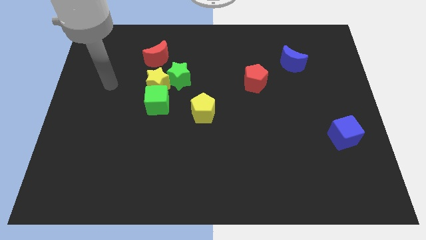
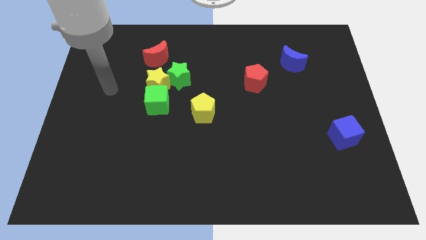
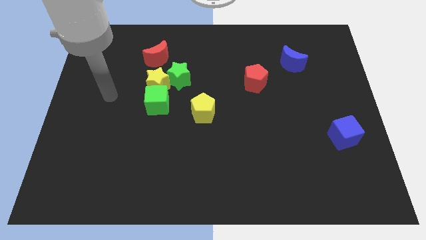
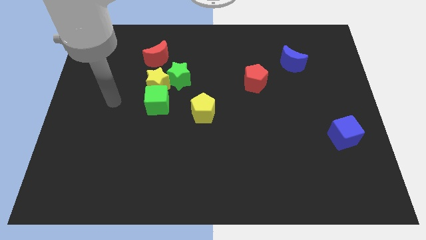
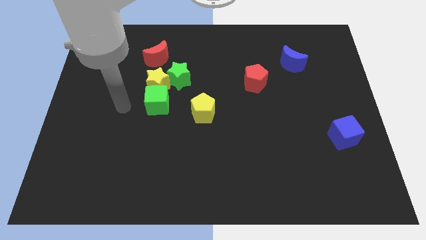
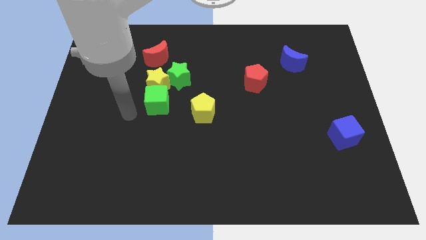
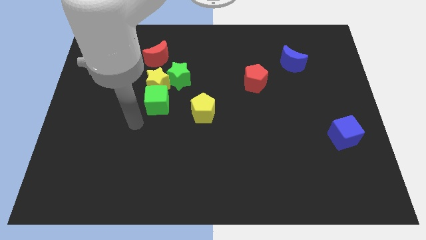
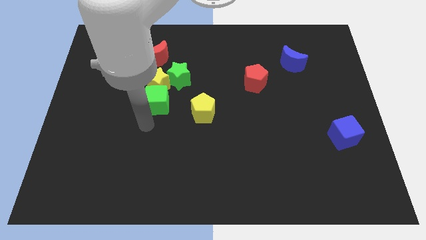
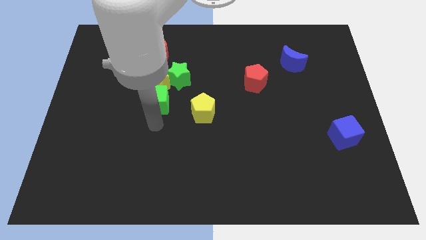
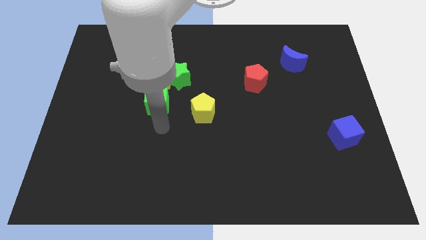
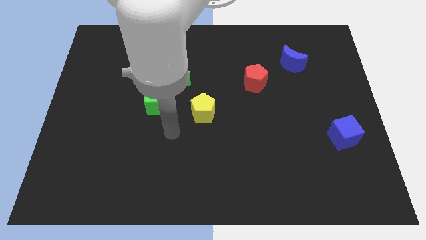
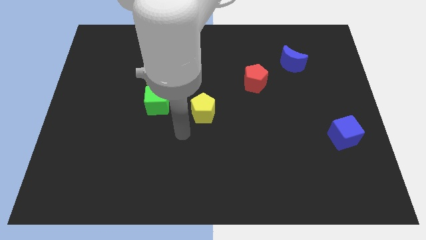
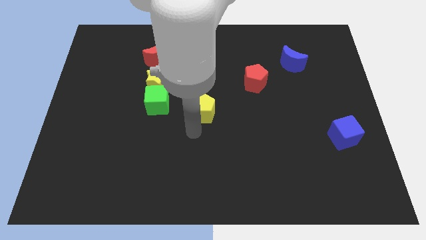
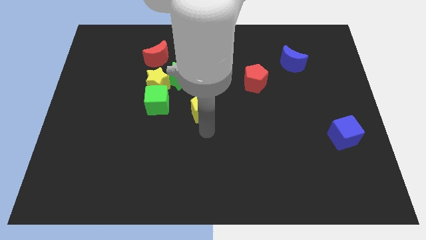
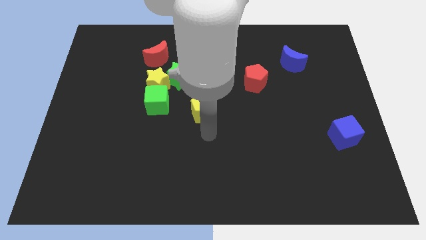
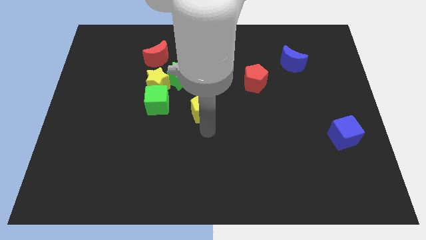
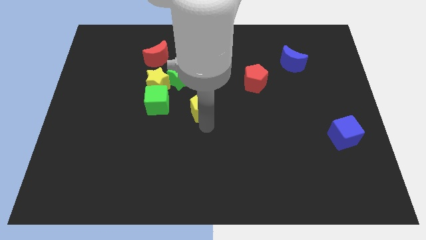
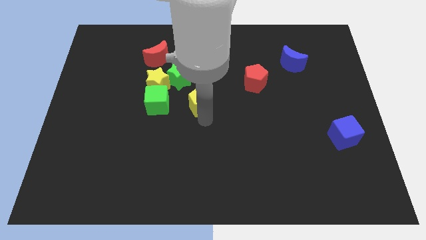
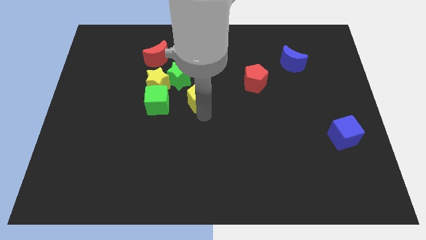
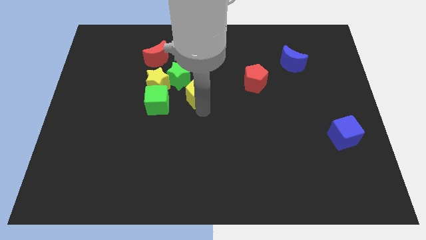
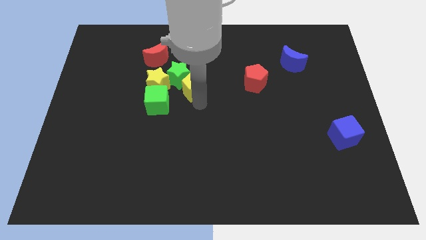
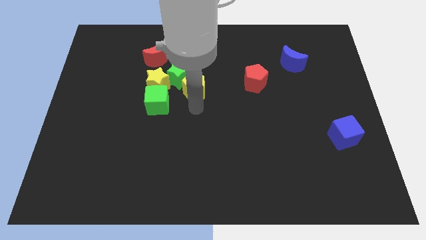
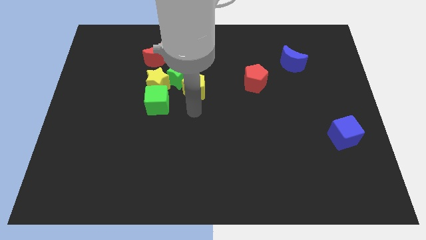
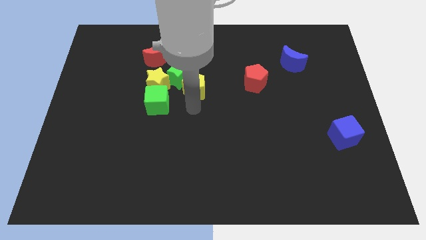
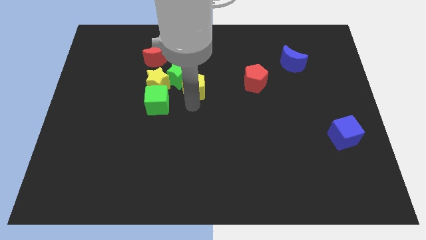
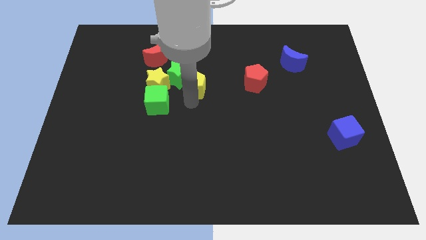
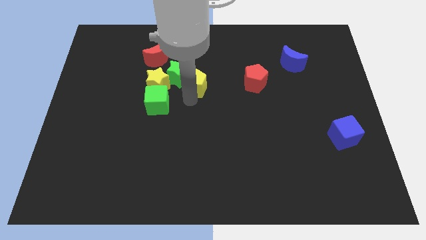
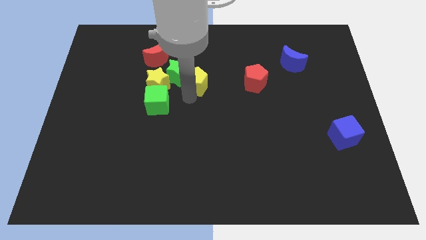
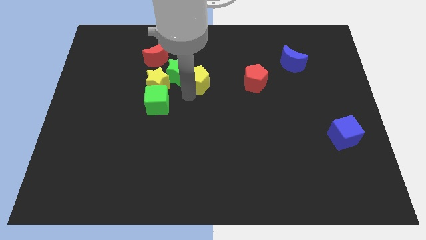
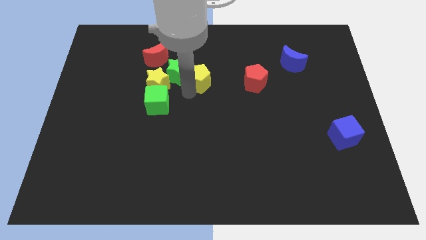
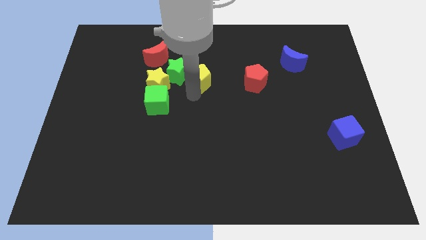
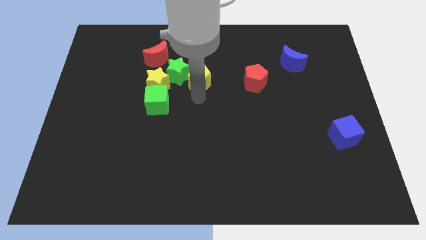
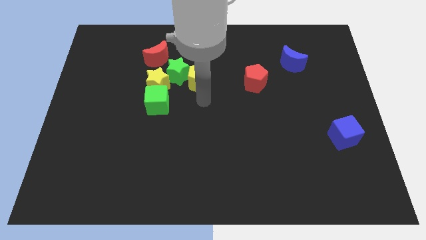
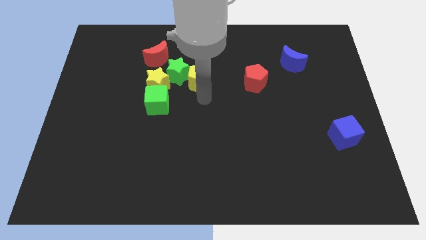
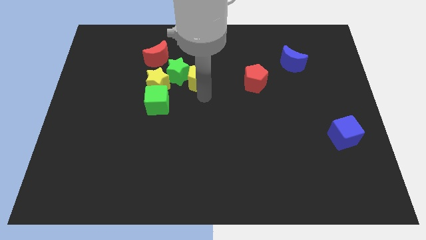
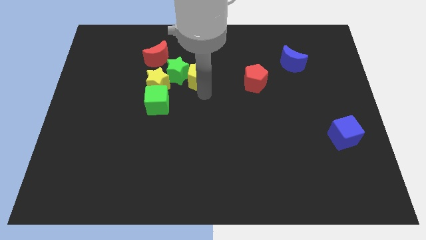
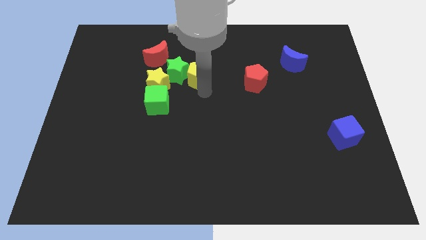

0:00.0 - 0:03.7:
slightly move the yellow pentagon diagonally up and to the left

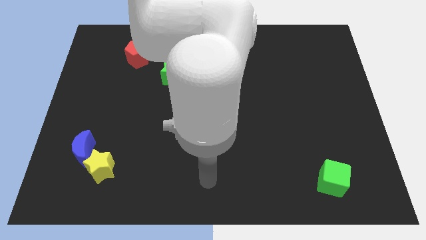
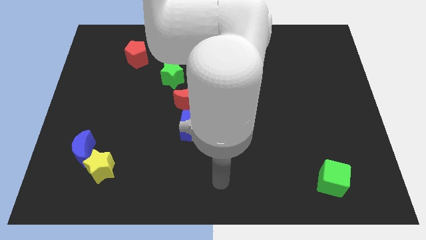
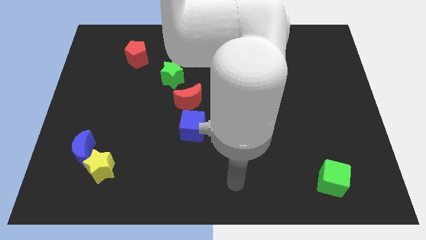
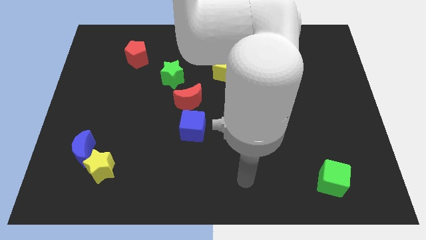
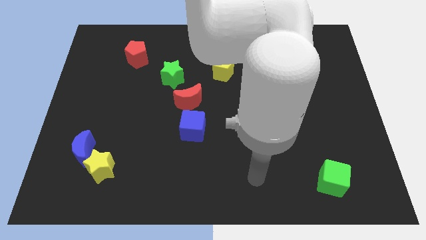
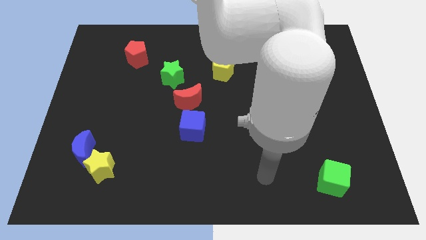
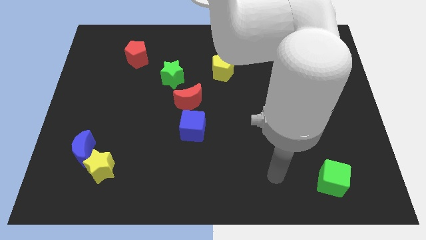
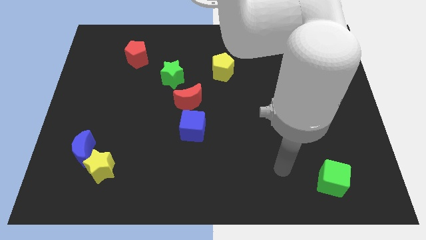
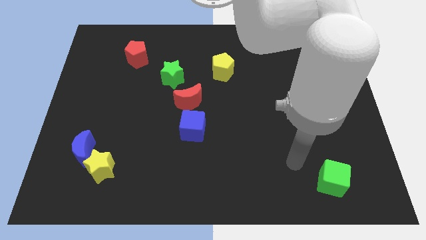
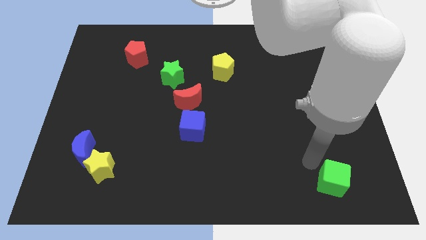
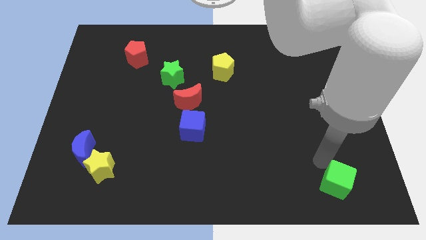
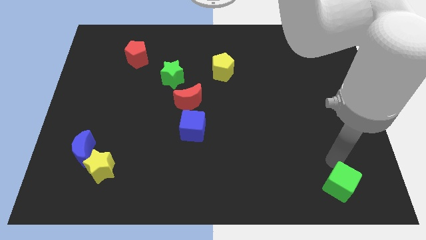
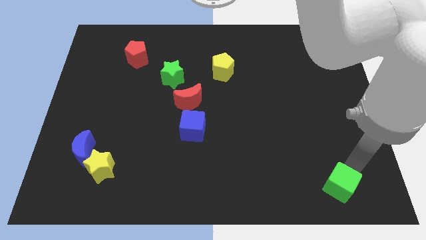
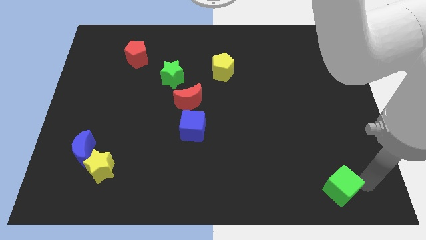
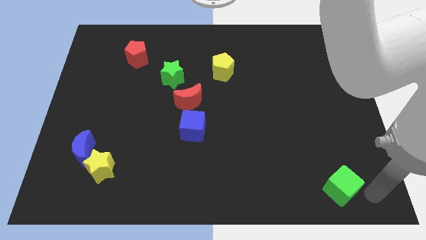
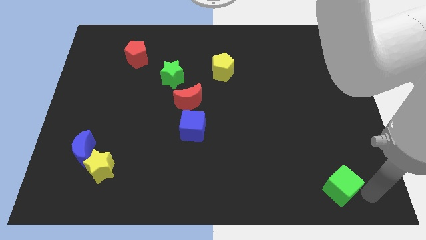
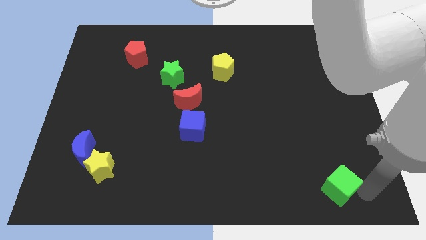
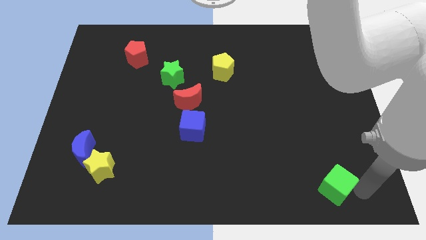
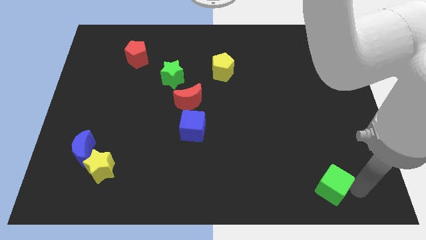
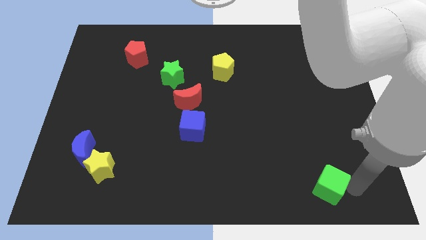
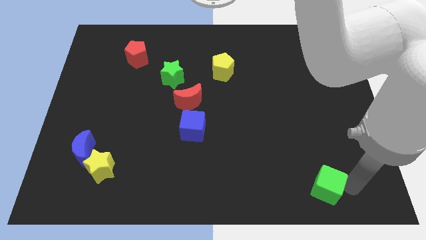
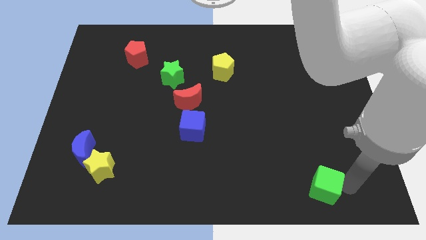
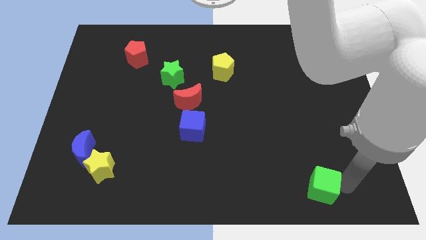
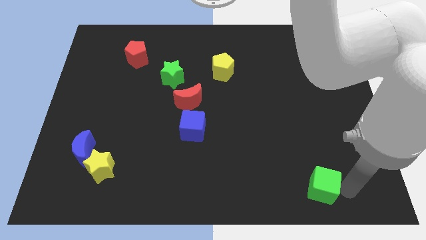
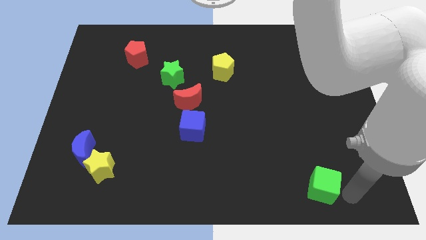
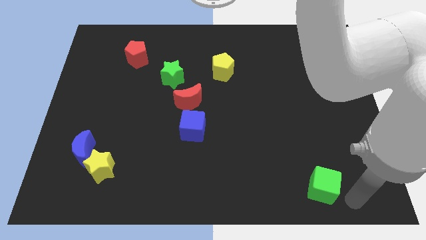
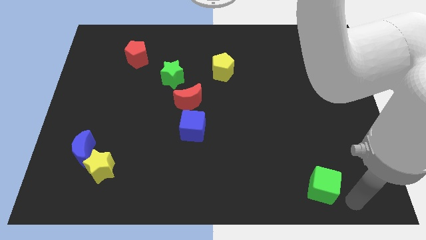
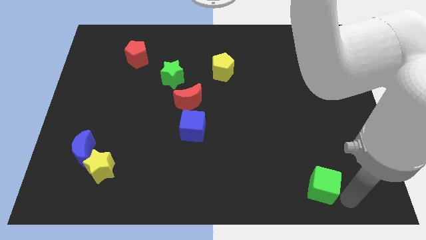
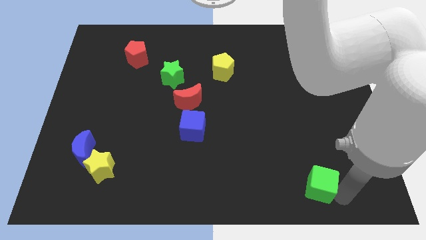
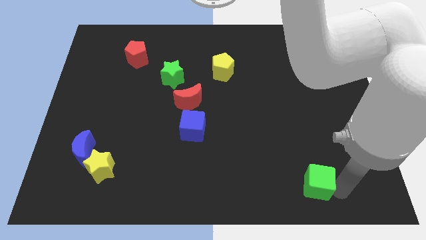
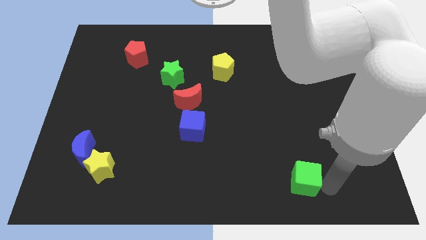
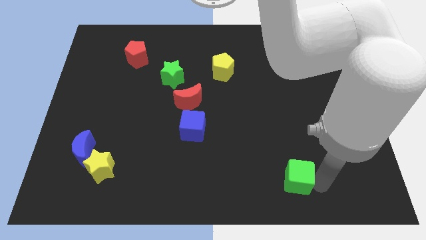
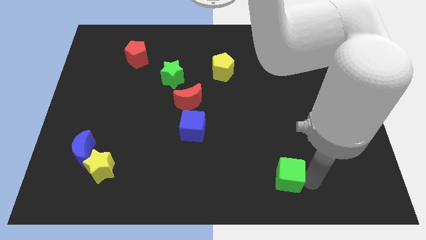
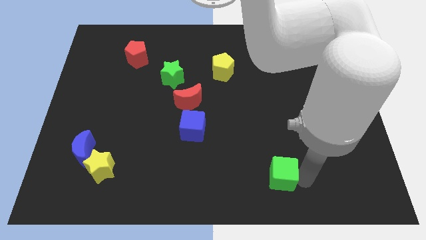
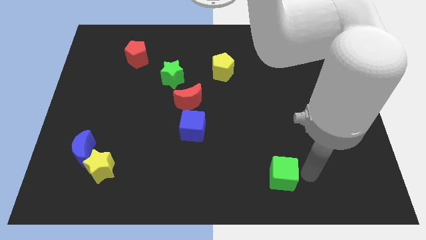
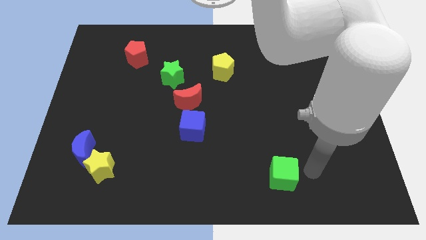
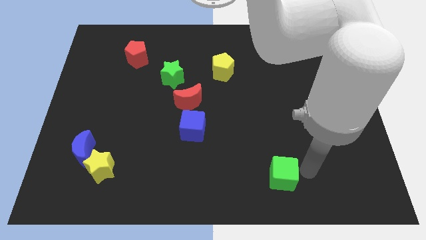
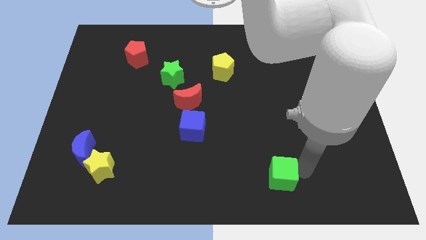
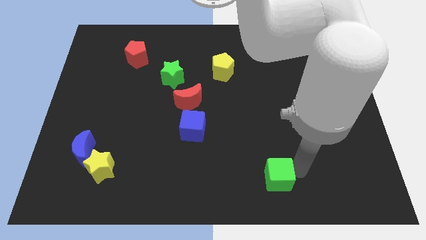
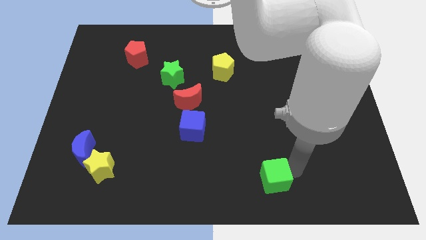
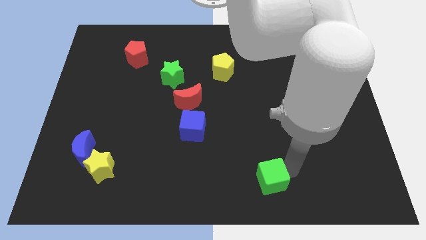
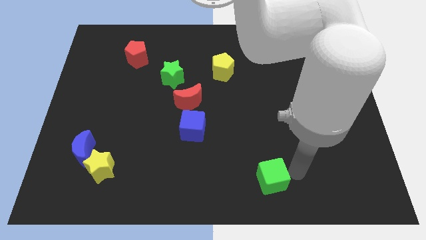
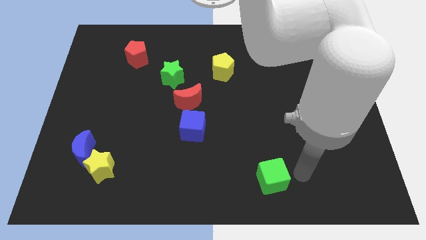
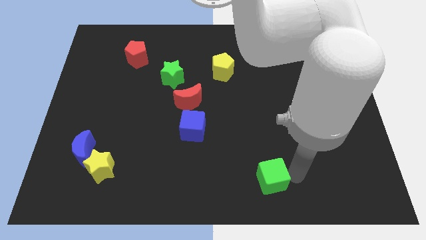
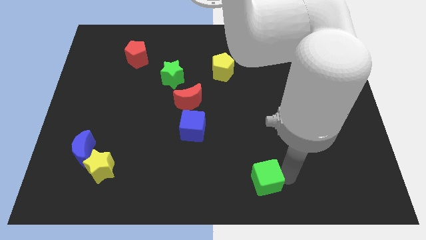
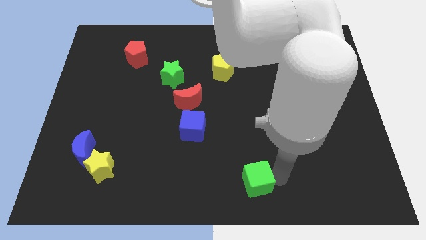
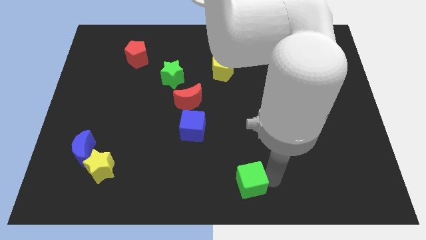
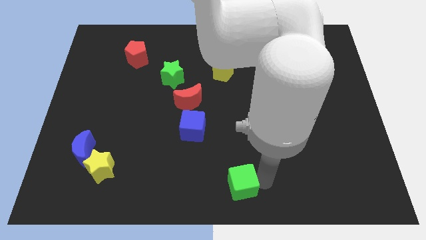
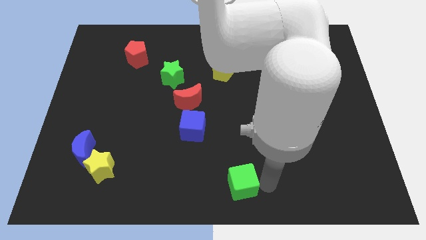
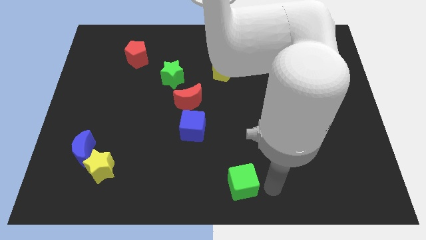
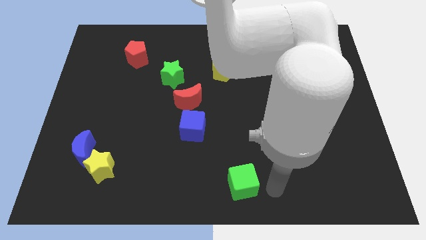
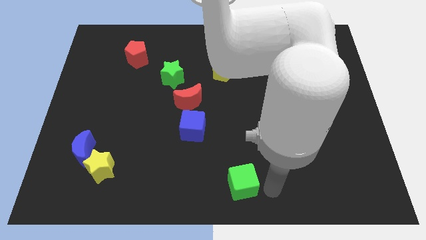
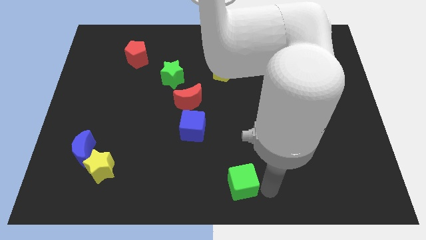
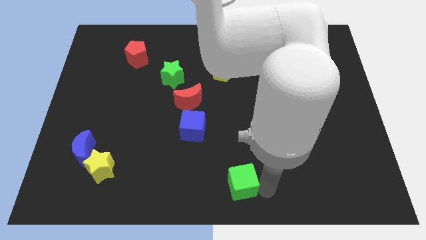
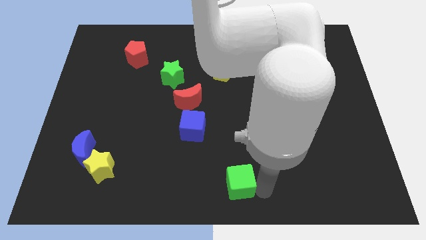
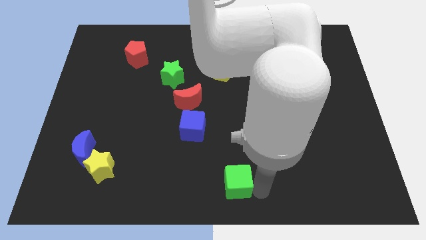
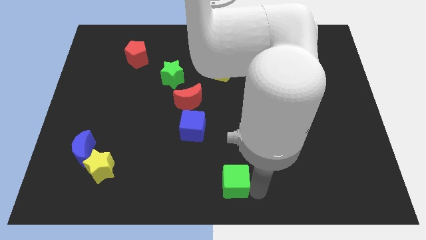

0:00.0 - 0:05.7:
push the green cube left
